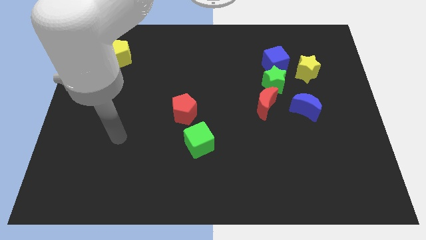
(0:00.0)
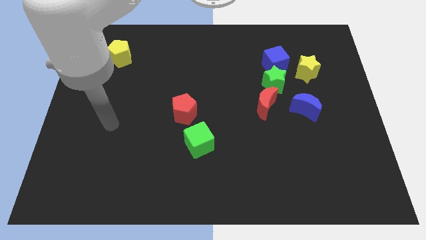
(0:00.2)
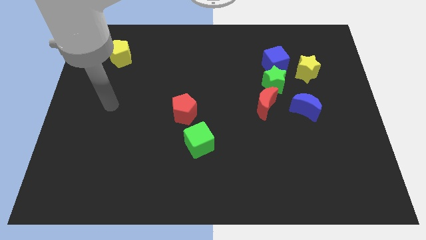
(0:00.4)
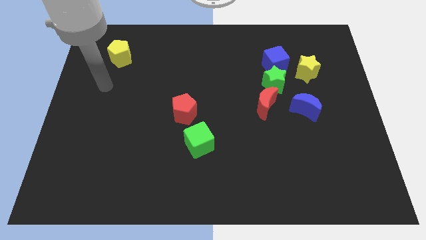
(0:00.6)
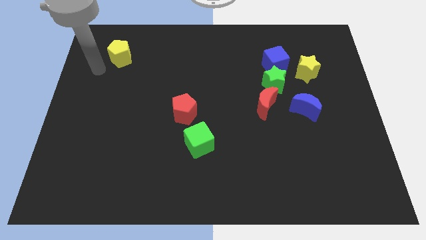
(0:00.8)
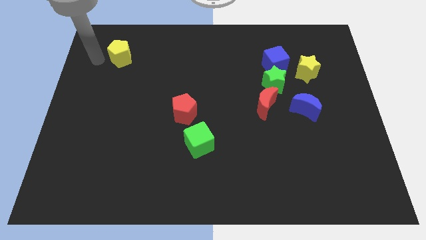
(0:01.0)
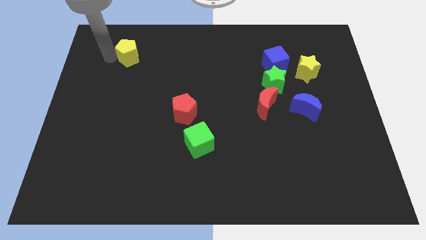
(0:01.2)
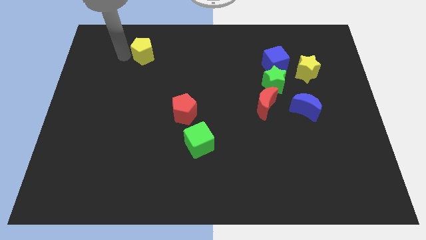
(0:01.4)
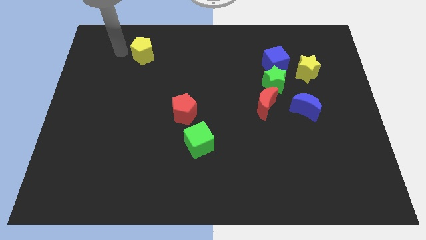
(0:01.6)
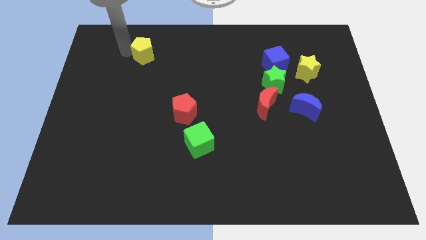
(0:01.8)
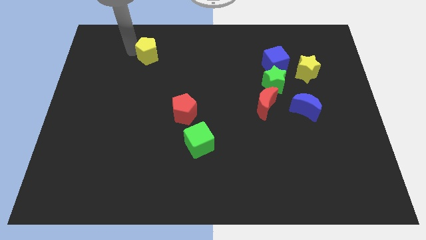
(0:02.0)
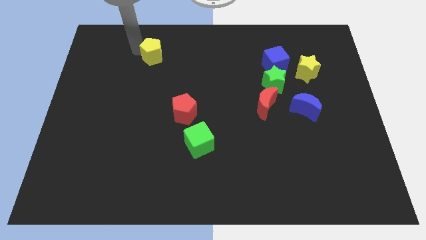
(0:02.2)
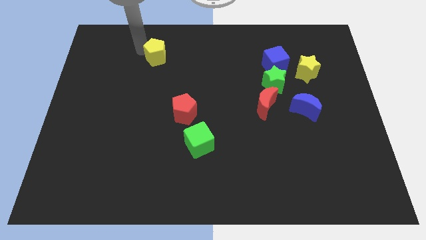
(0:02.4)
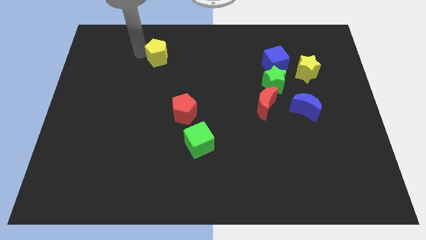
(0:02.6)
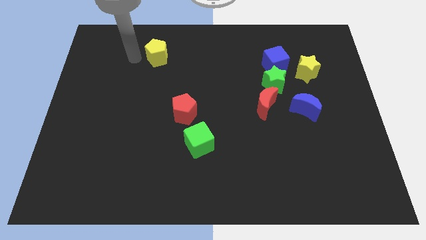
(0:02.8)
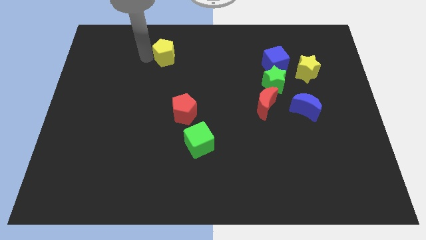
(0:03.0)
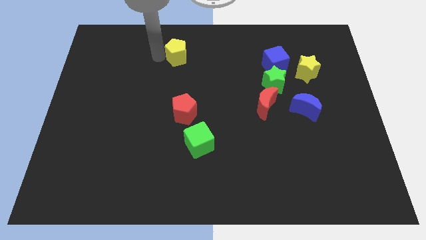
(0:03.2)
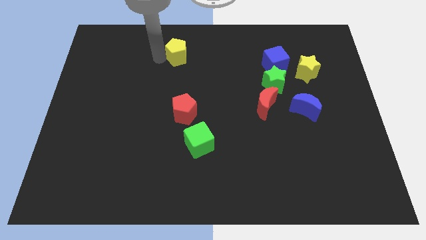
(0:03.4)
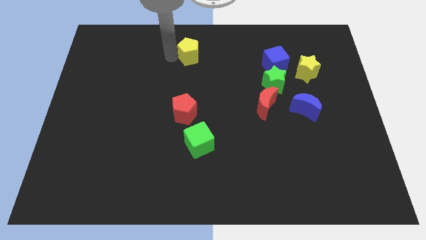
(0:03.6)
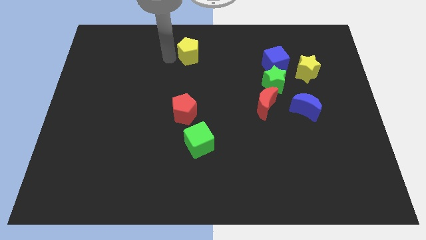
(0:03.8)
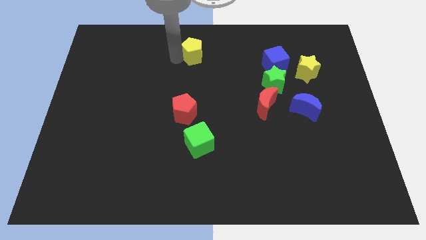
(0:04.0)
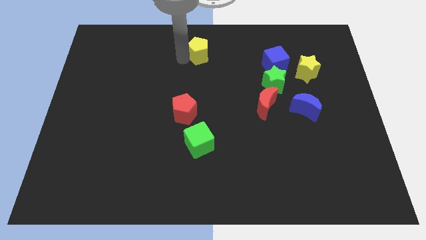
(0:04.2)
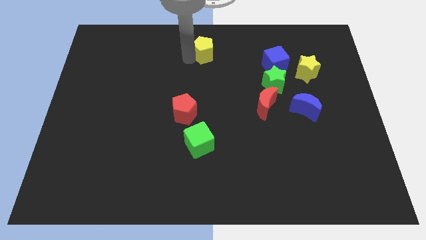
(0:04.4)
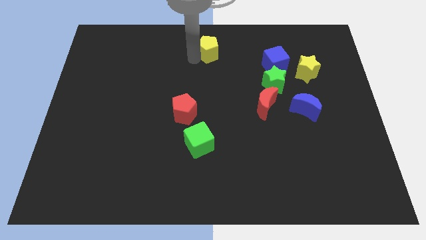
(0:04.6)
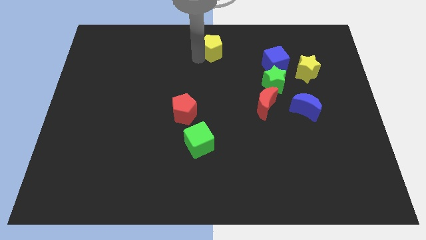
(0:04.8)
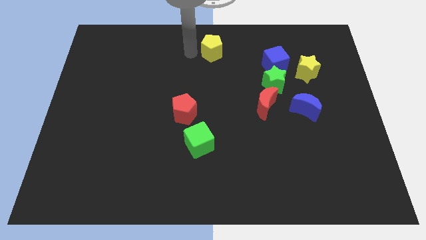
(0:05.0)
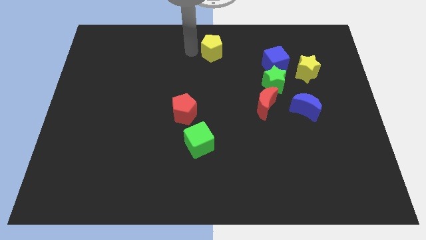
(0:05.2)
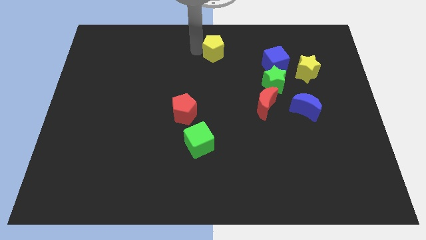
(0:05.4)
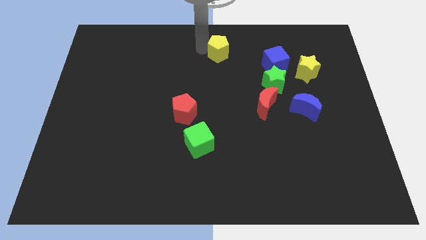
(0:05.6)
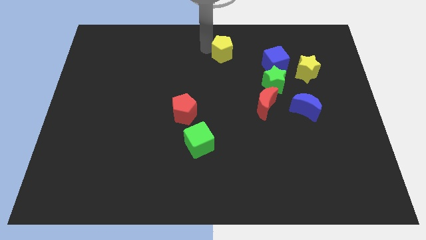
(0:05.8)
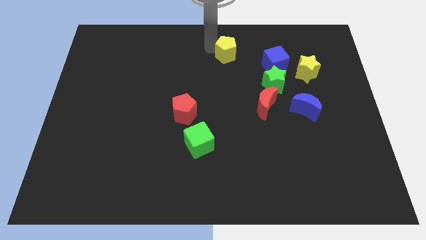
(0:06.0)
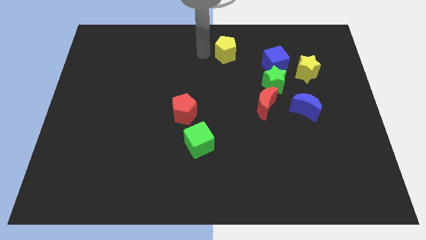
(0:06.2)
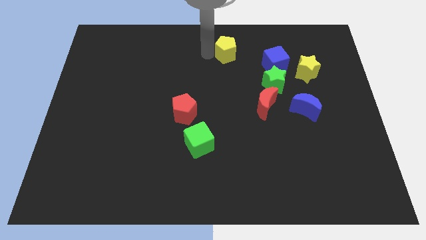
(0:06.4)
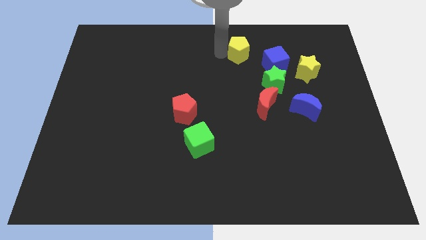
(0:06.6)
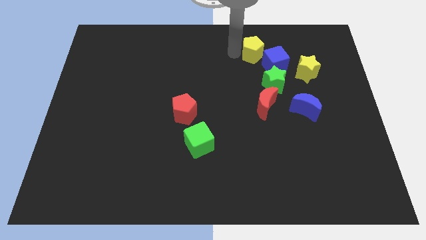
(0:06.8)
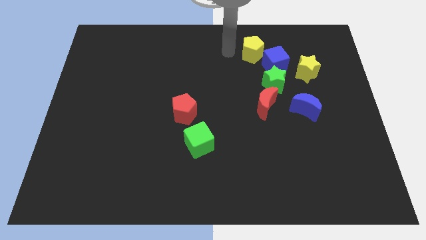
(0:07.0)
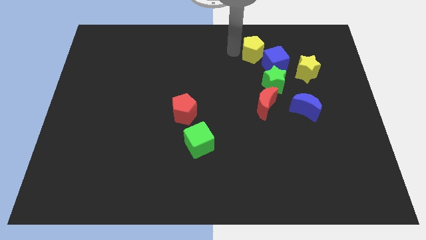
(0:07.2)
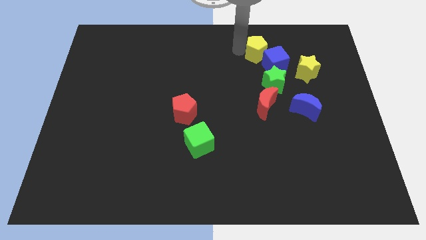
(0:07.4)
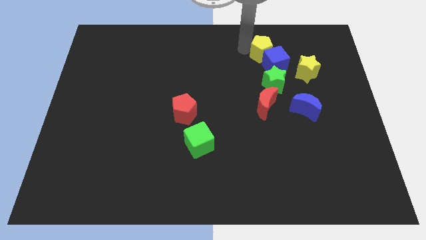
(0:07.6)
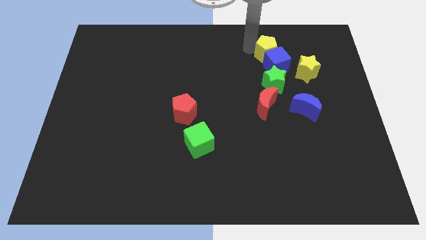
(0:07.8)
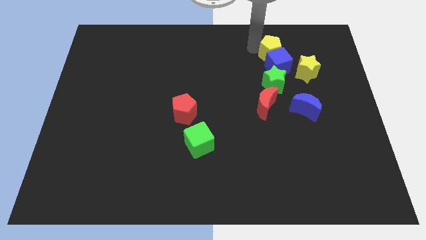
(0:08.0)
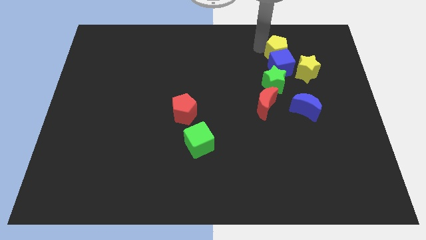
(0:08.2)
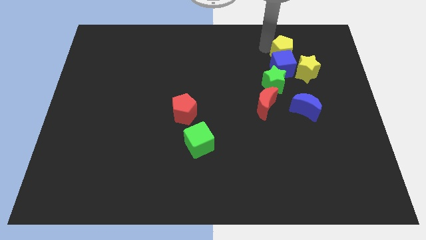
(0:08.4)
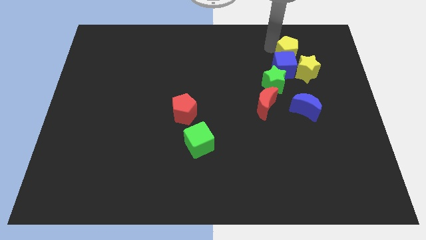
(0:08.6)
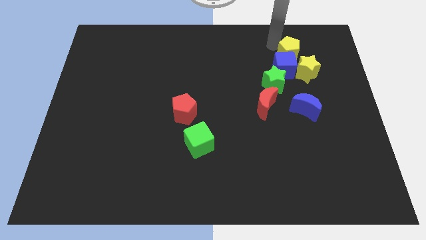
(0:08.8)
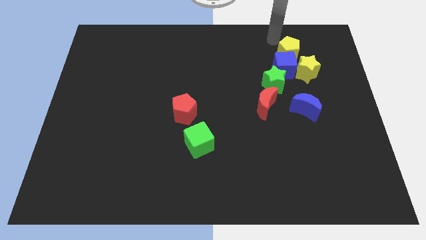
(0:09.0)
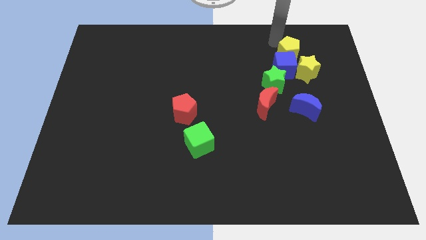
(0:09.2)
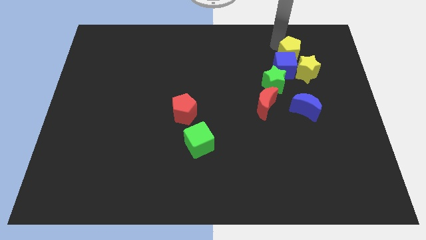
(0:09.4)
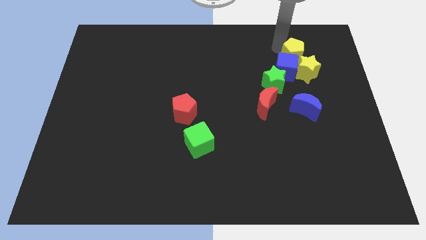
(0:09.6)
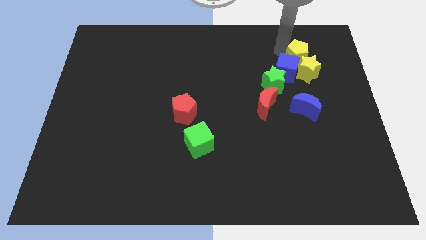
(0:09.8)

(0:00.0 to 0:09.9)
push the yellow pentagon towards the yellow star

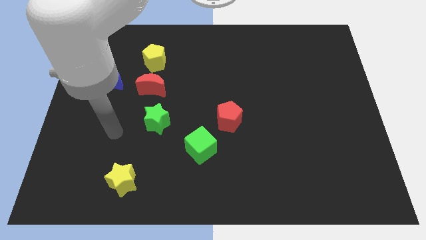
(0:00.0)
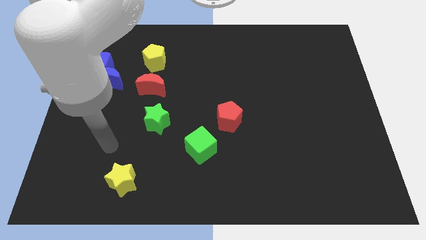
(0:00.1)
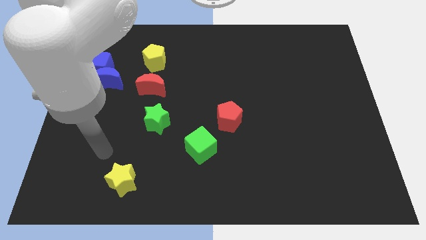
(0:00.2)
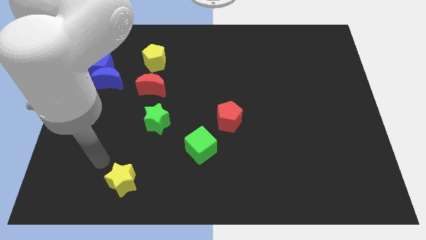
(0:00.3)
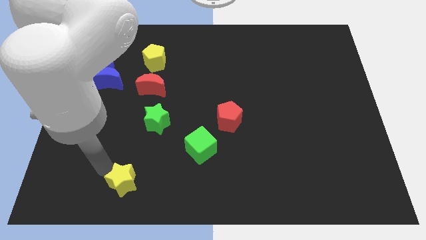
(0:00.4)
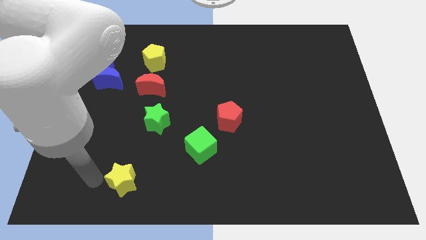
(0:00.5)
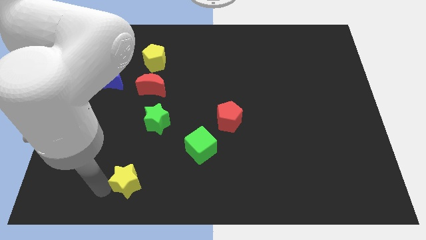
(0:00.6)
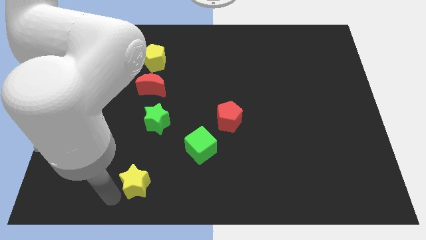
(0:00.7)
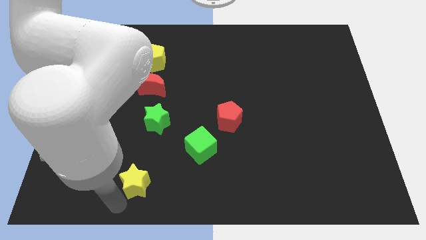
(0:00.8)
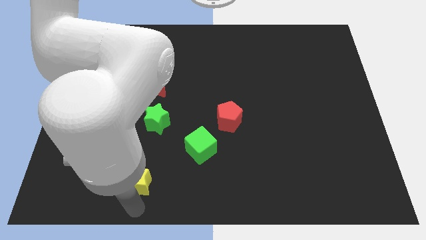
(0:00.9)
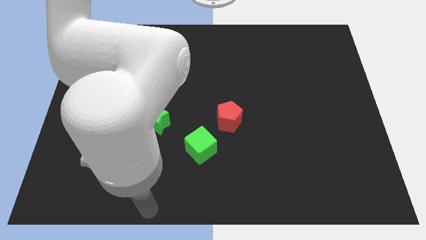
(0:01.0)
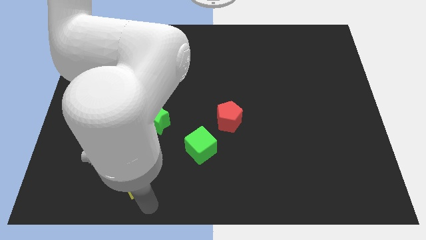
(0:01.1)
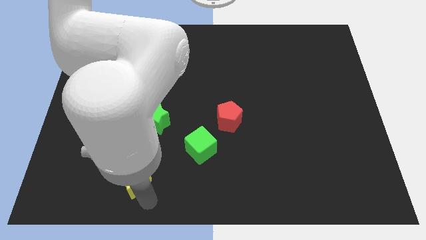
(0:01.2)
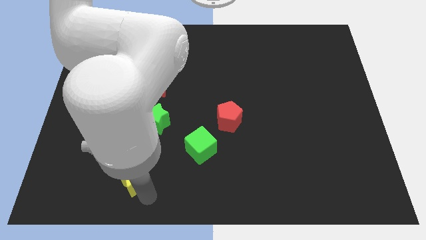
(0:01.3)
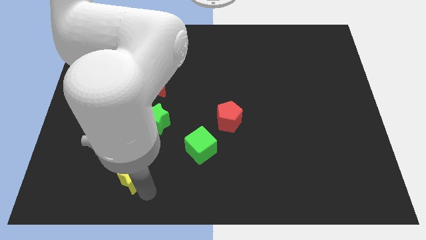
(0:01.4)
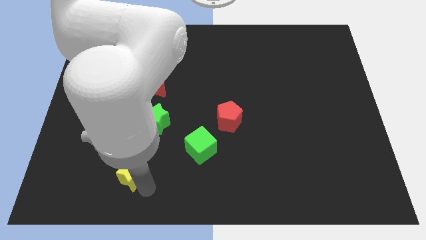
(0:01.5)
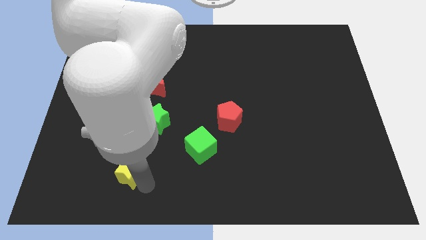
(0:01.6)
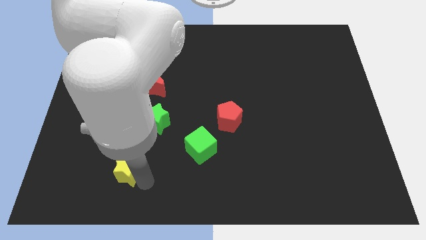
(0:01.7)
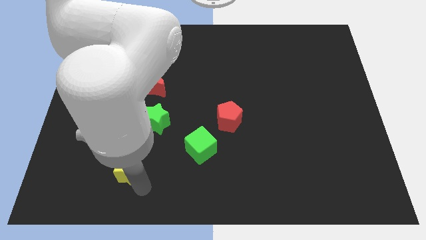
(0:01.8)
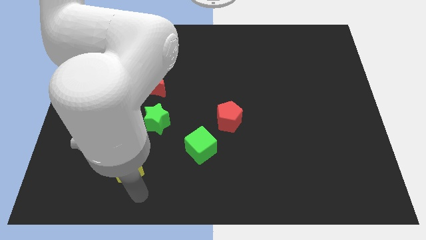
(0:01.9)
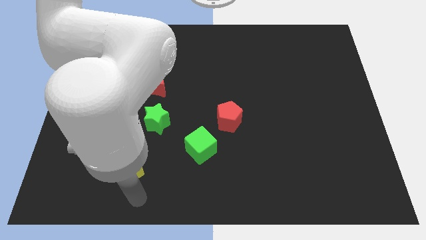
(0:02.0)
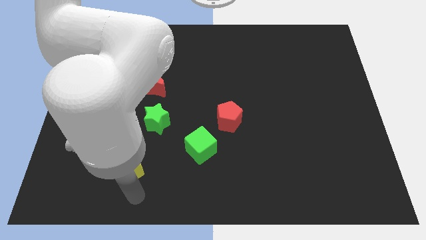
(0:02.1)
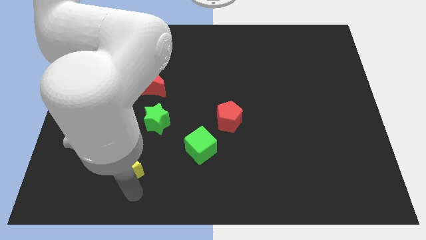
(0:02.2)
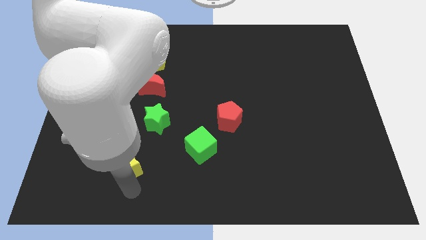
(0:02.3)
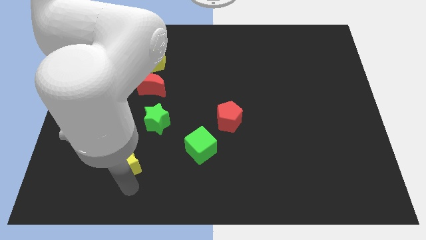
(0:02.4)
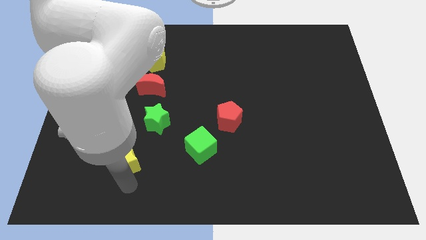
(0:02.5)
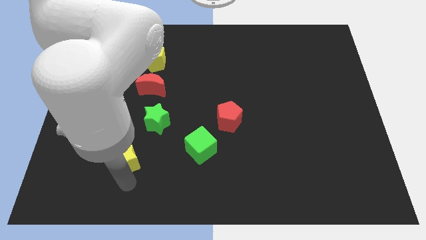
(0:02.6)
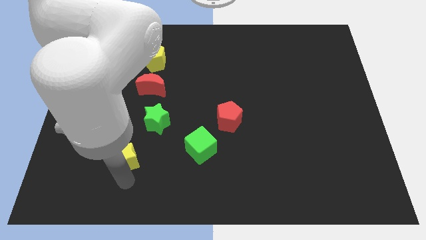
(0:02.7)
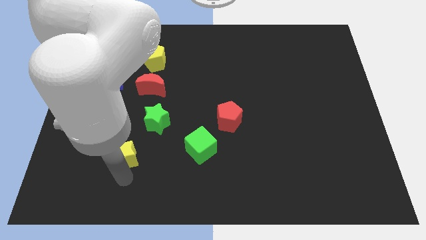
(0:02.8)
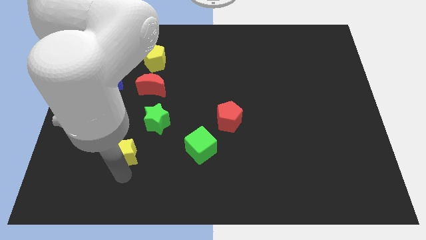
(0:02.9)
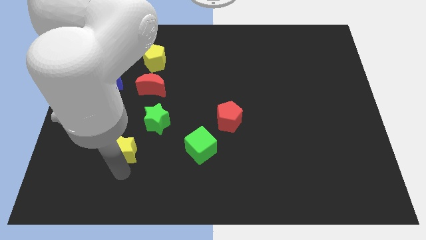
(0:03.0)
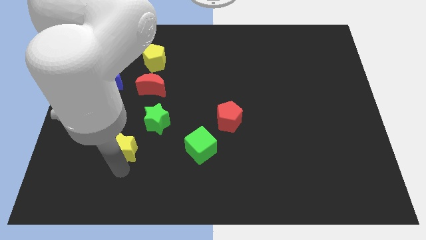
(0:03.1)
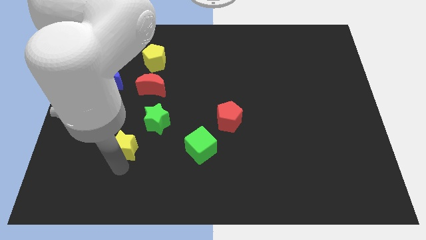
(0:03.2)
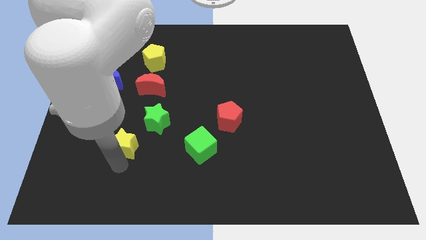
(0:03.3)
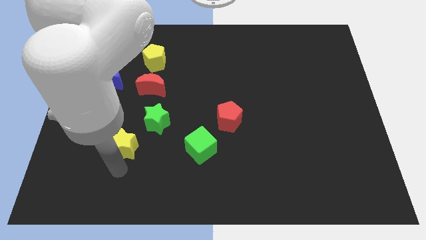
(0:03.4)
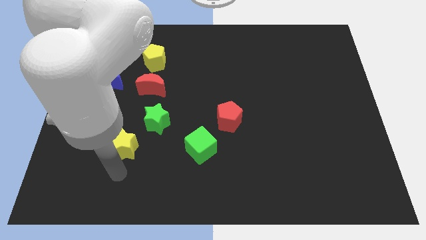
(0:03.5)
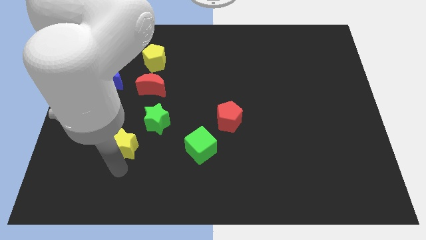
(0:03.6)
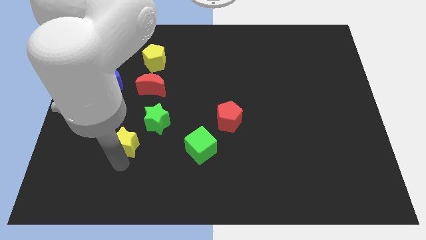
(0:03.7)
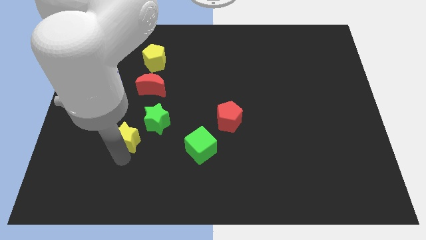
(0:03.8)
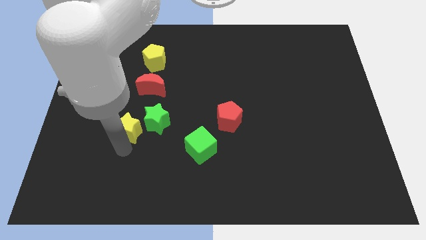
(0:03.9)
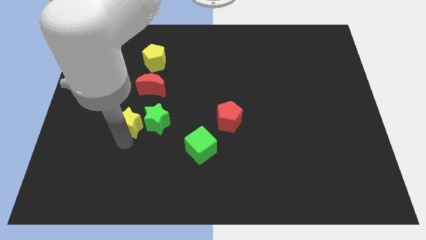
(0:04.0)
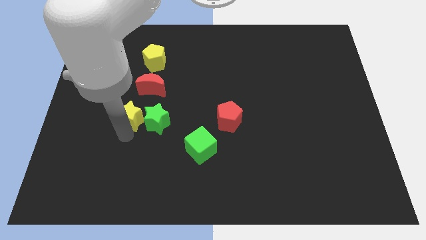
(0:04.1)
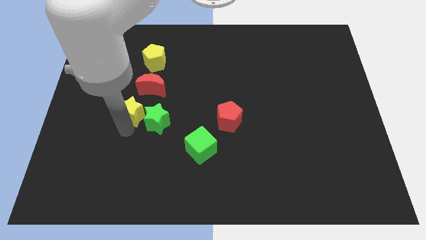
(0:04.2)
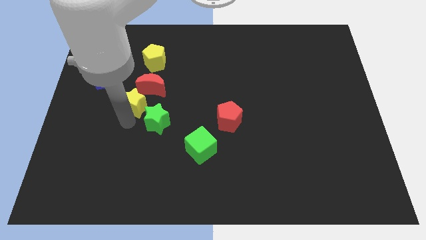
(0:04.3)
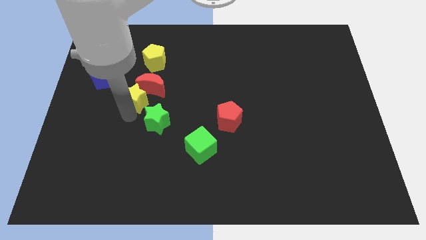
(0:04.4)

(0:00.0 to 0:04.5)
move the yellow star to the red moon
